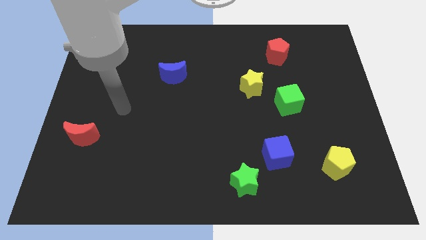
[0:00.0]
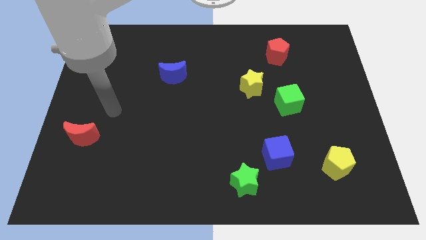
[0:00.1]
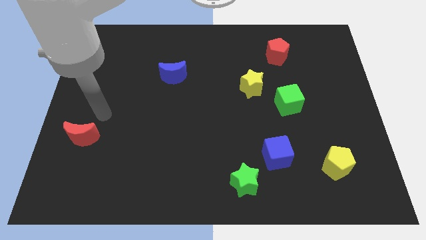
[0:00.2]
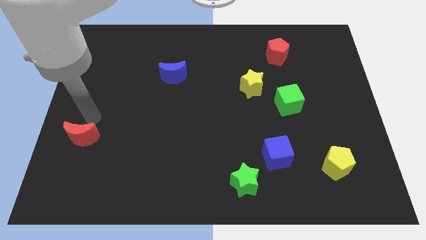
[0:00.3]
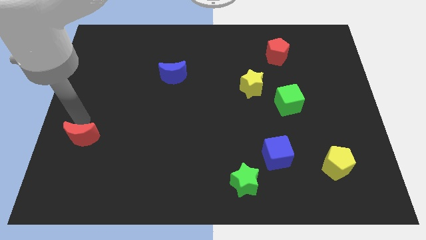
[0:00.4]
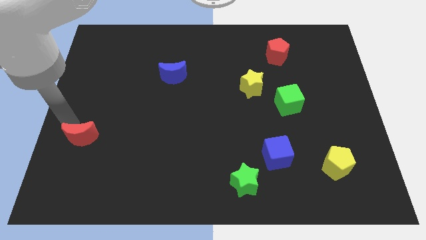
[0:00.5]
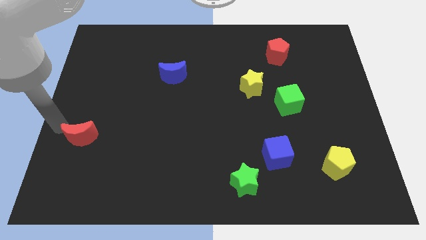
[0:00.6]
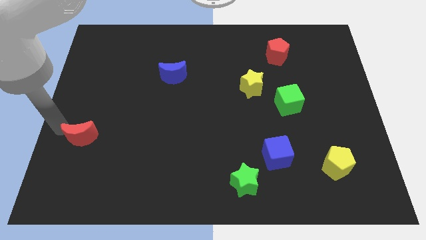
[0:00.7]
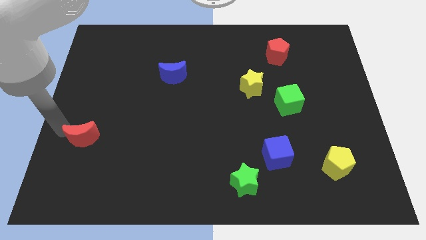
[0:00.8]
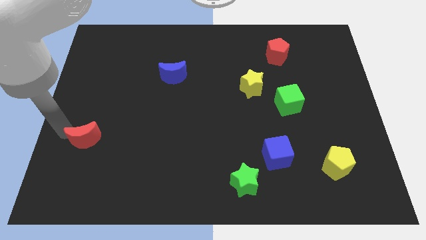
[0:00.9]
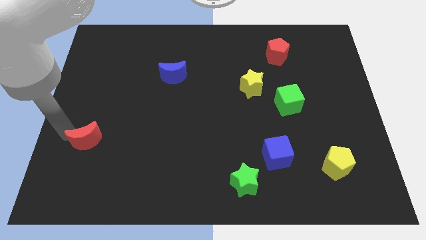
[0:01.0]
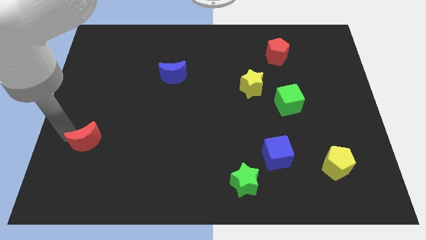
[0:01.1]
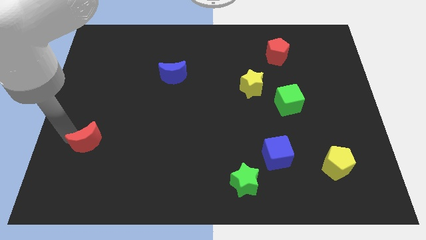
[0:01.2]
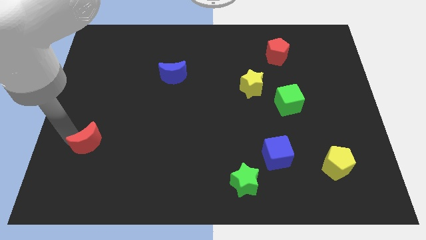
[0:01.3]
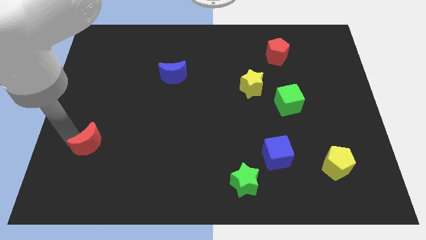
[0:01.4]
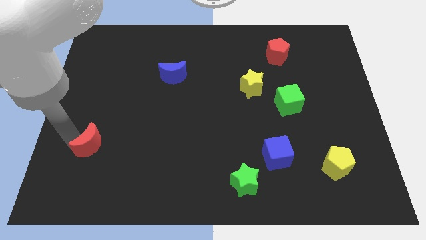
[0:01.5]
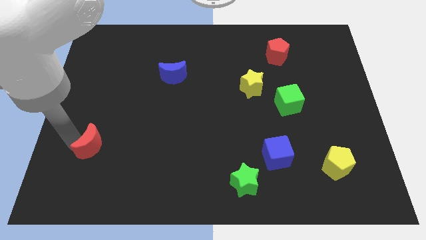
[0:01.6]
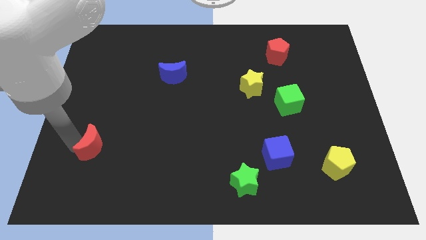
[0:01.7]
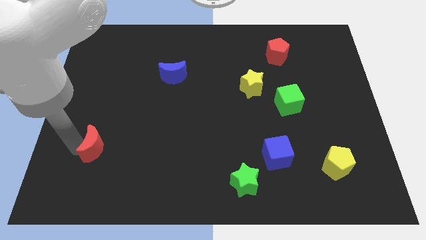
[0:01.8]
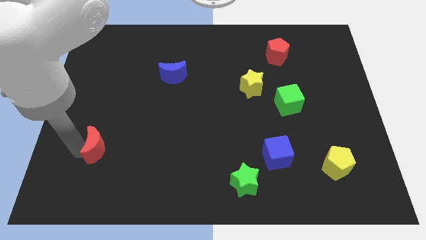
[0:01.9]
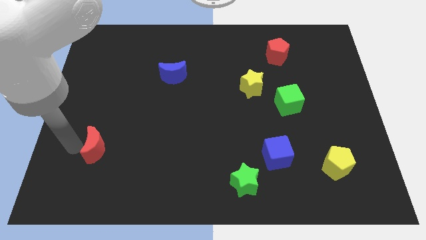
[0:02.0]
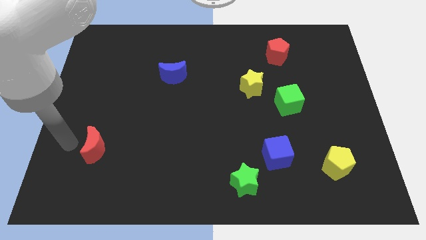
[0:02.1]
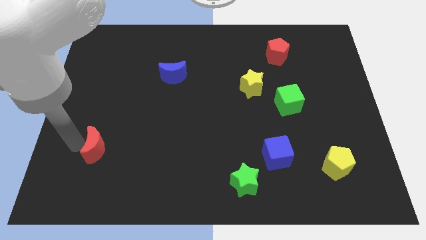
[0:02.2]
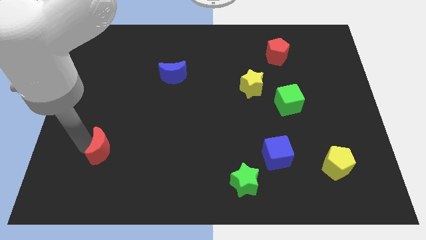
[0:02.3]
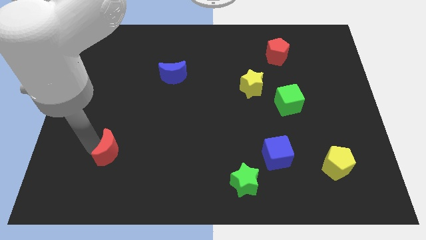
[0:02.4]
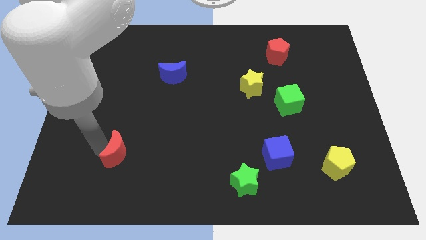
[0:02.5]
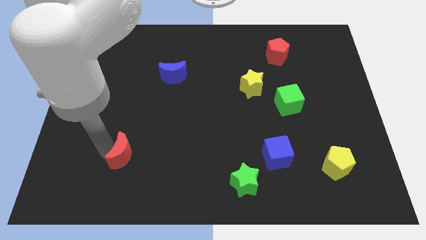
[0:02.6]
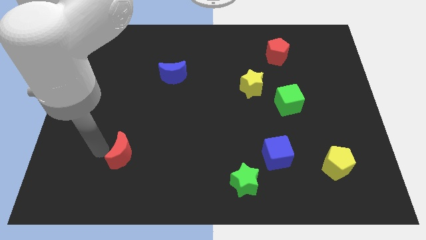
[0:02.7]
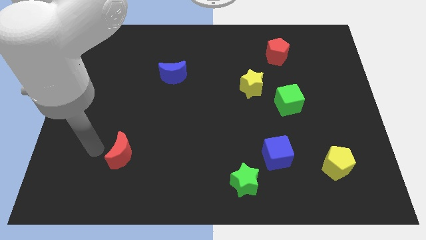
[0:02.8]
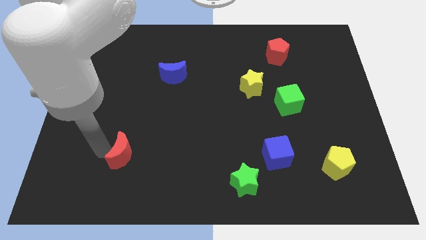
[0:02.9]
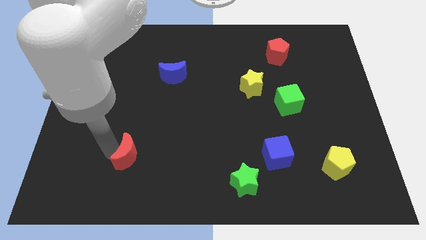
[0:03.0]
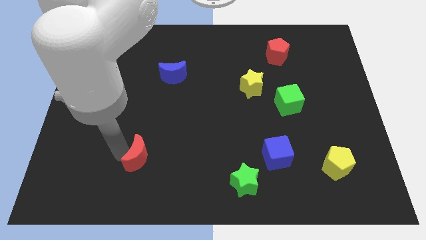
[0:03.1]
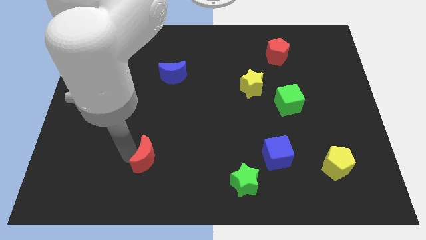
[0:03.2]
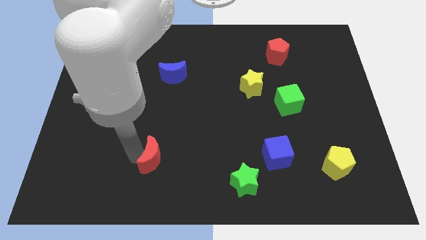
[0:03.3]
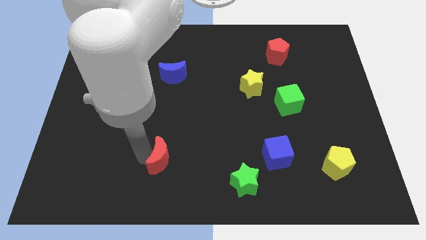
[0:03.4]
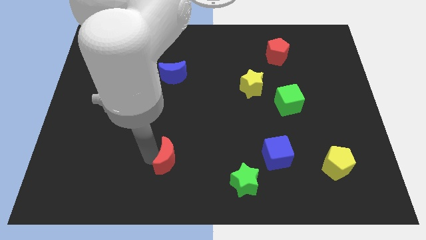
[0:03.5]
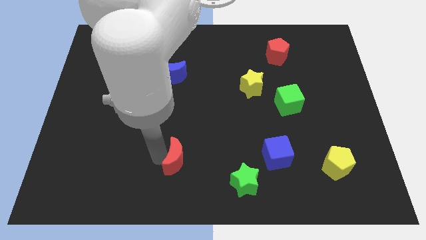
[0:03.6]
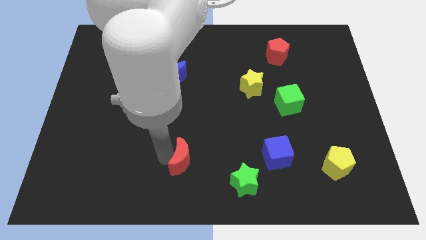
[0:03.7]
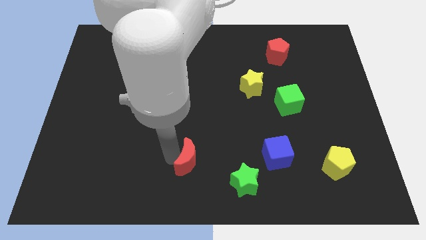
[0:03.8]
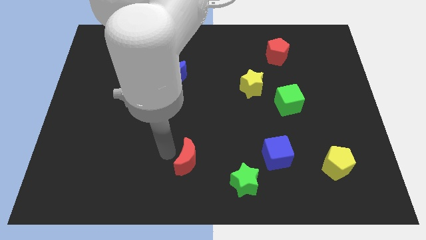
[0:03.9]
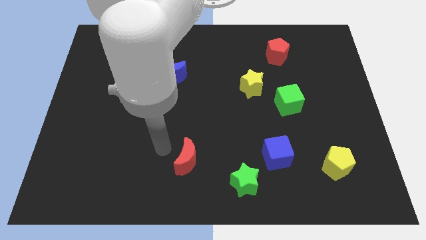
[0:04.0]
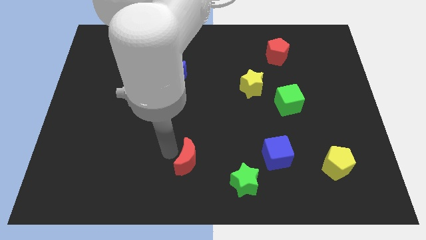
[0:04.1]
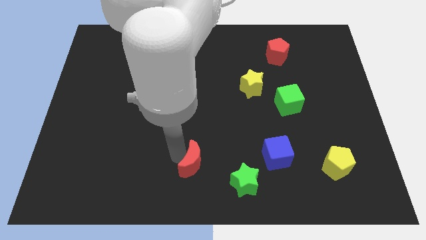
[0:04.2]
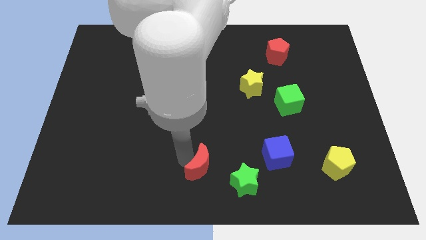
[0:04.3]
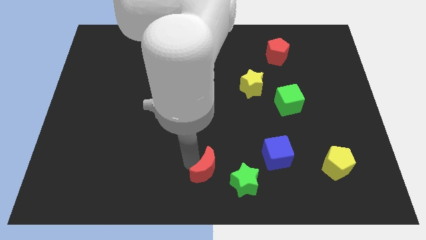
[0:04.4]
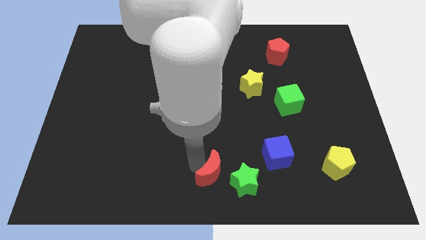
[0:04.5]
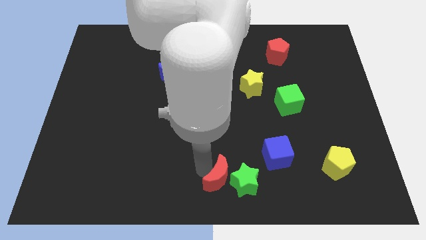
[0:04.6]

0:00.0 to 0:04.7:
push the red moon towards the green star

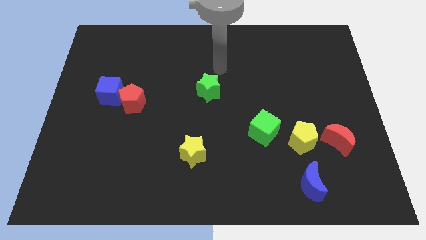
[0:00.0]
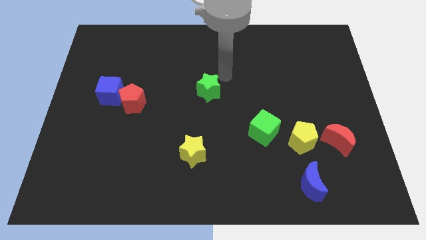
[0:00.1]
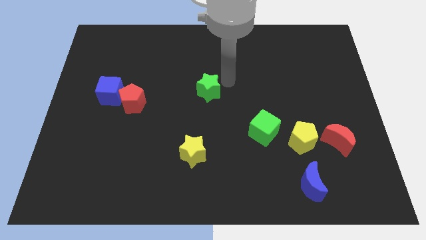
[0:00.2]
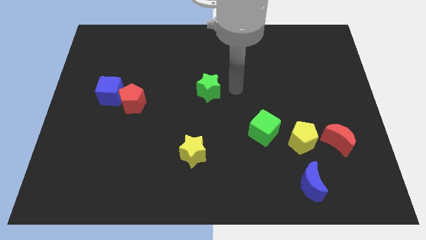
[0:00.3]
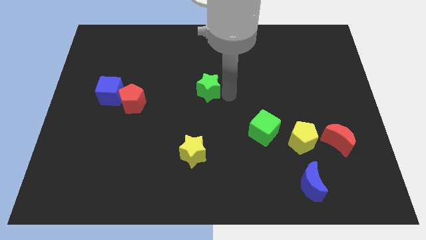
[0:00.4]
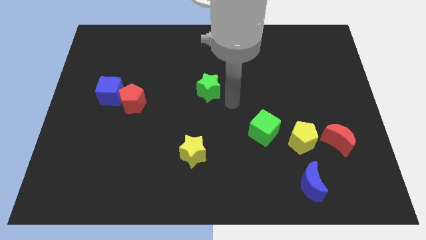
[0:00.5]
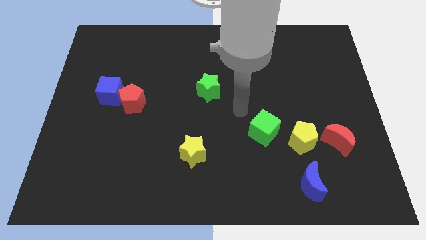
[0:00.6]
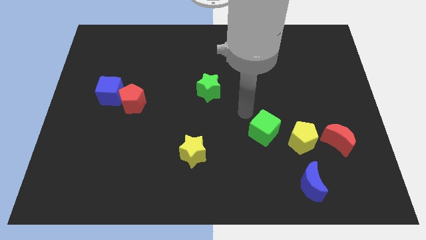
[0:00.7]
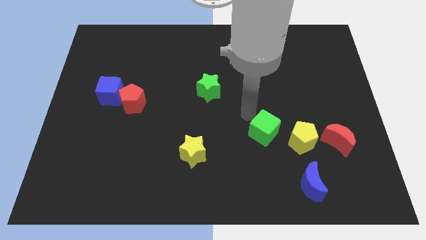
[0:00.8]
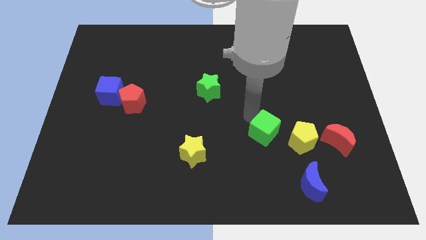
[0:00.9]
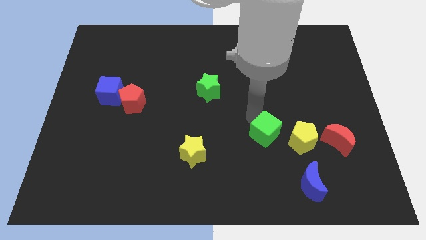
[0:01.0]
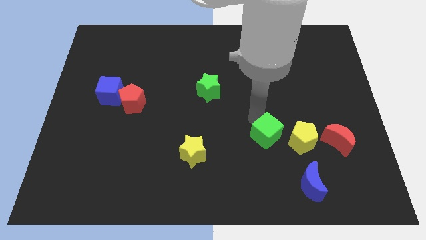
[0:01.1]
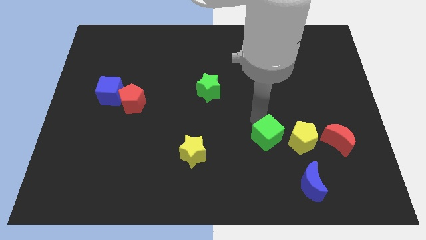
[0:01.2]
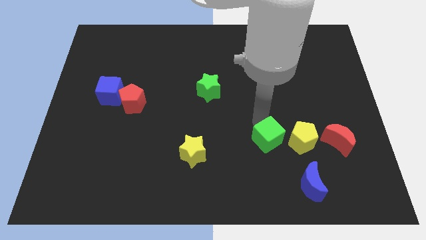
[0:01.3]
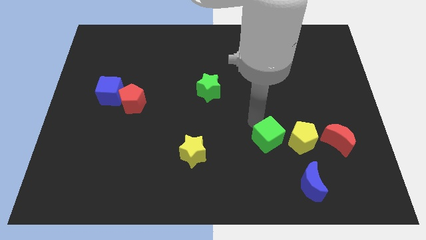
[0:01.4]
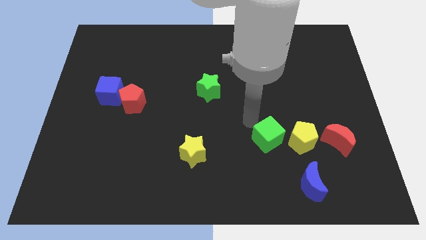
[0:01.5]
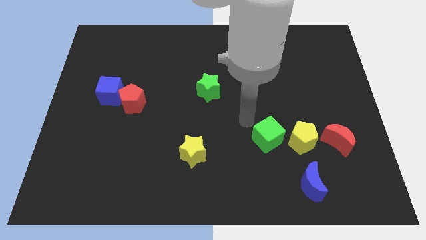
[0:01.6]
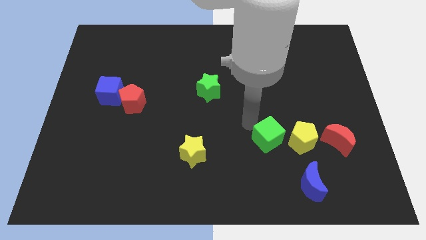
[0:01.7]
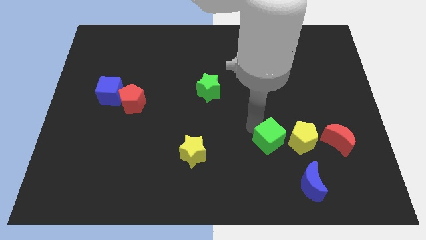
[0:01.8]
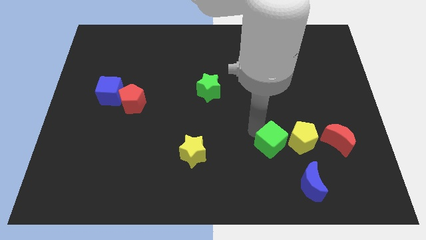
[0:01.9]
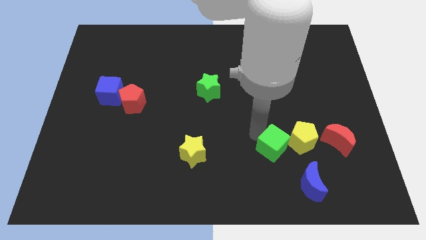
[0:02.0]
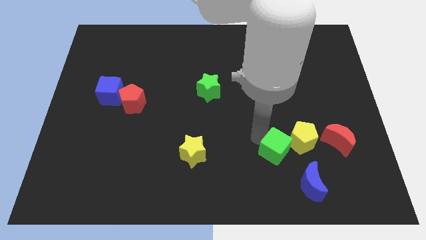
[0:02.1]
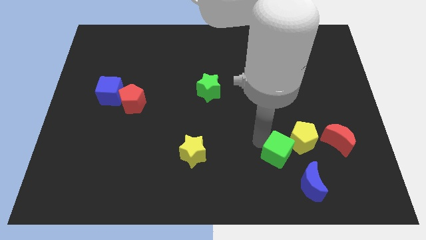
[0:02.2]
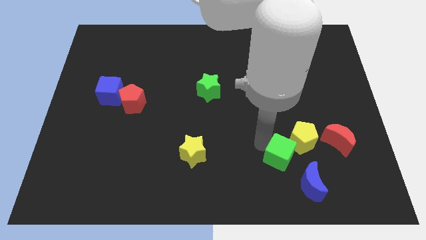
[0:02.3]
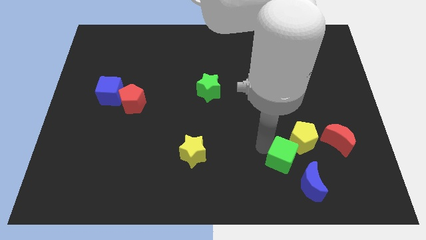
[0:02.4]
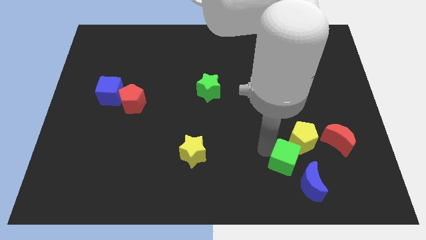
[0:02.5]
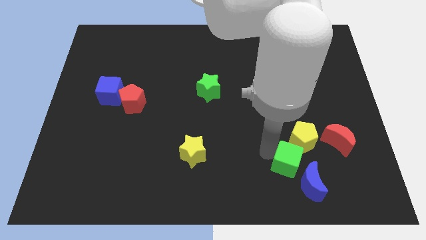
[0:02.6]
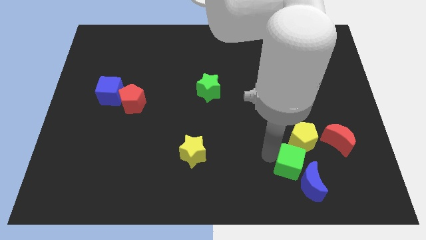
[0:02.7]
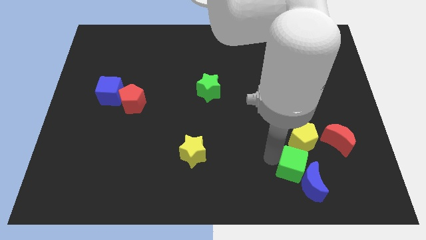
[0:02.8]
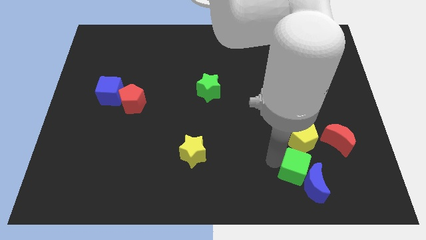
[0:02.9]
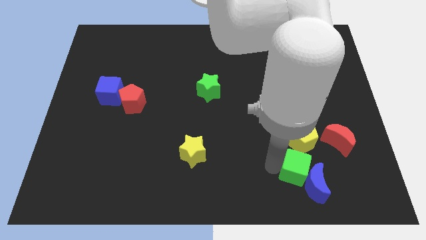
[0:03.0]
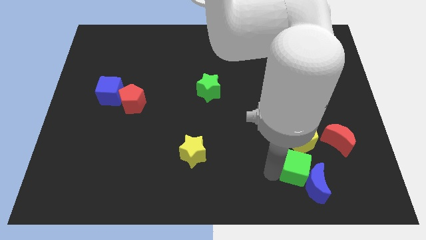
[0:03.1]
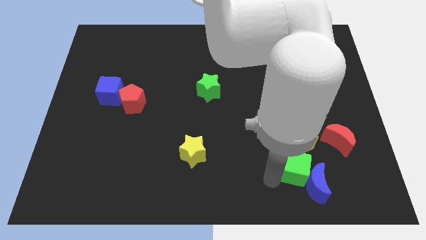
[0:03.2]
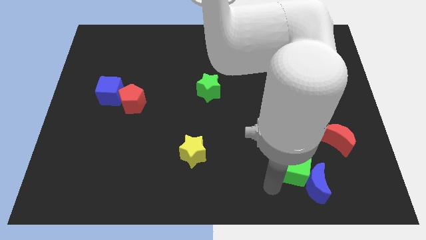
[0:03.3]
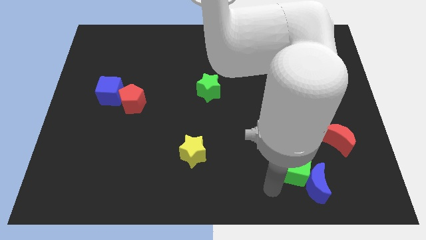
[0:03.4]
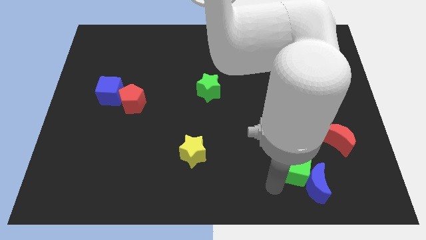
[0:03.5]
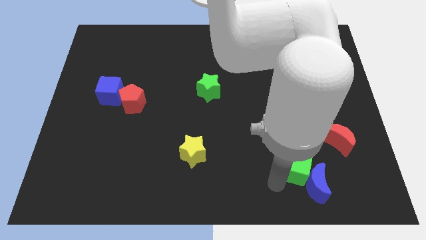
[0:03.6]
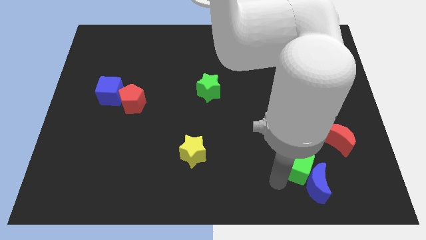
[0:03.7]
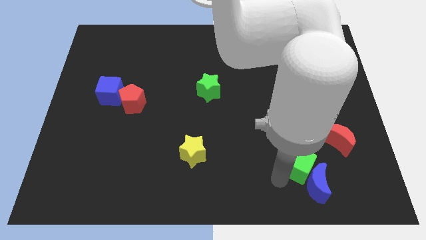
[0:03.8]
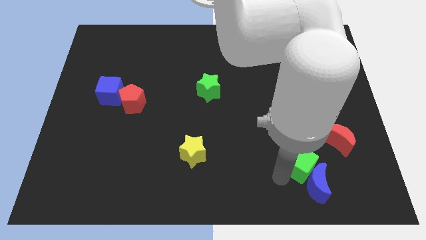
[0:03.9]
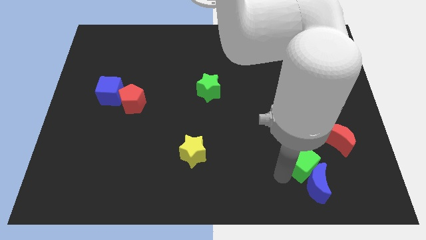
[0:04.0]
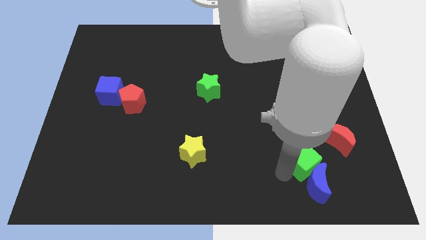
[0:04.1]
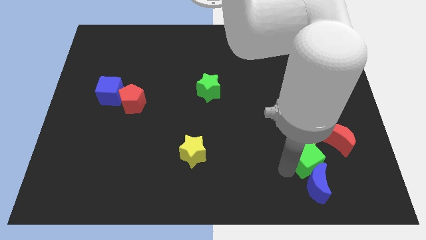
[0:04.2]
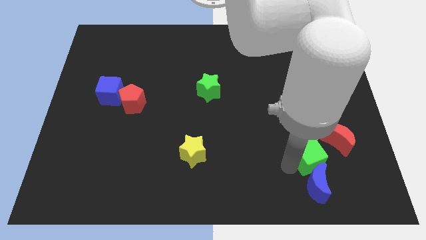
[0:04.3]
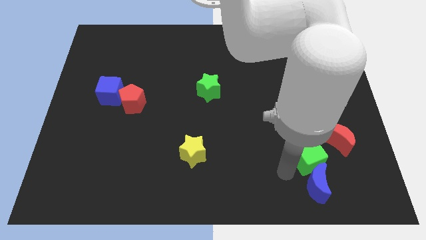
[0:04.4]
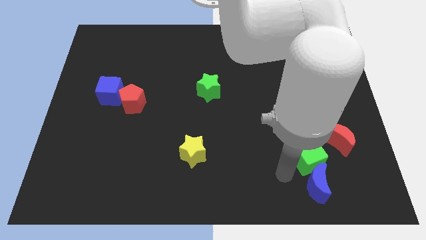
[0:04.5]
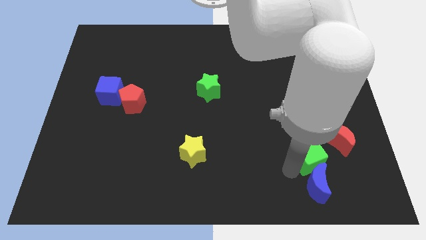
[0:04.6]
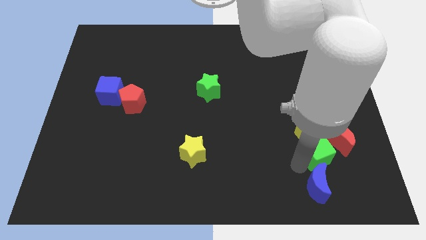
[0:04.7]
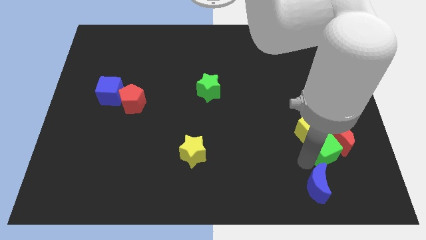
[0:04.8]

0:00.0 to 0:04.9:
slide the green cube next to the red moon
